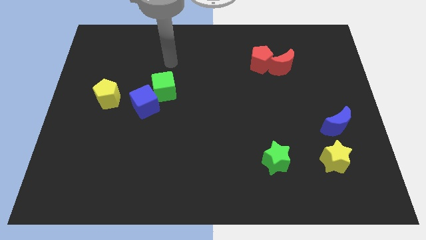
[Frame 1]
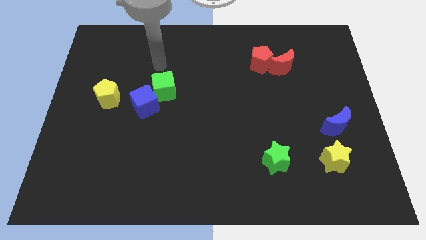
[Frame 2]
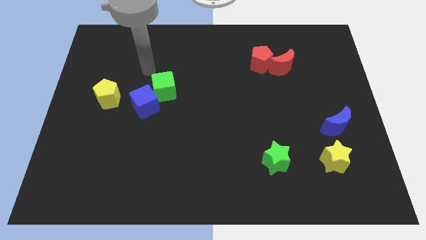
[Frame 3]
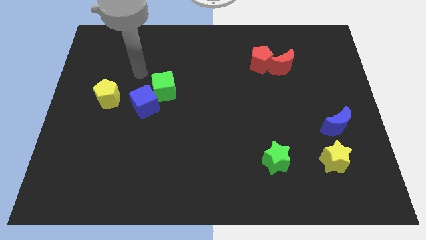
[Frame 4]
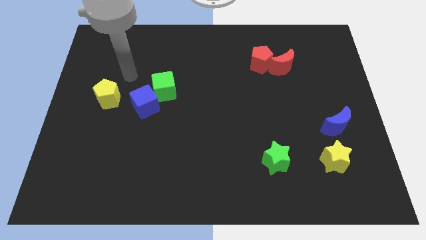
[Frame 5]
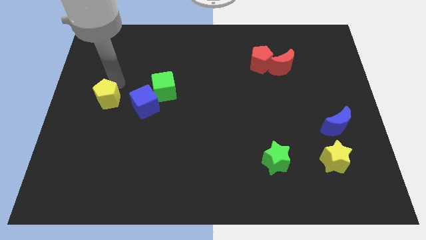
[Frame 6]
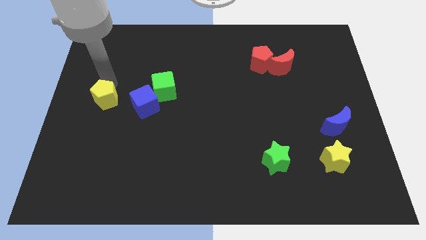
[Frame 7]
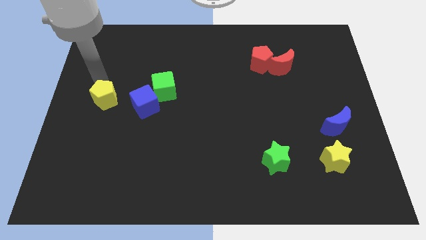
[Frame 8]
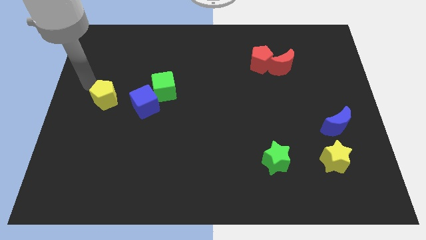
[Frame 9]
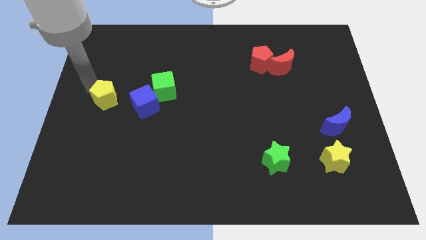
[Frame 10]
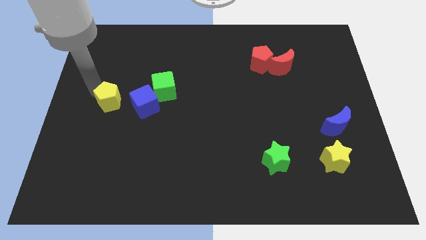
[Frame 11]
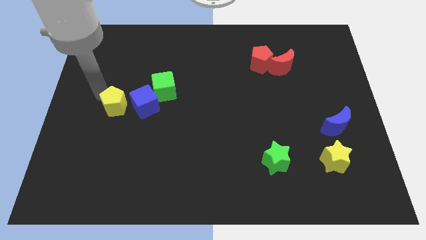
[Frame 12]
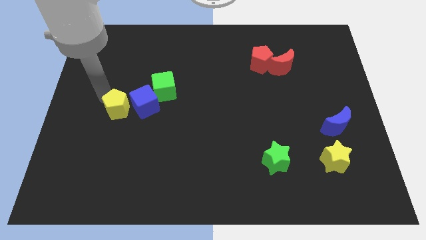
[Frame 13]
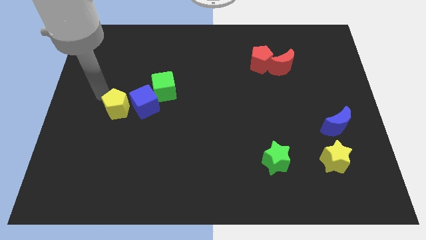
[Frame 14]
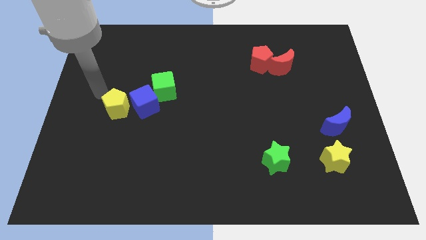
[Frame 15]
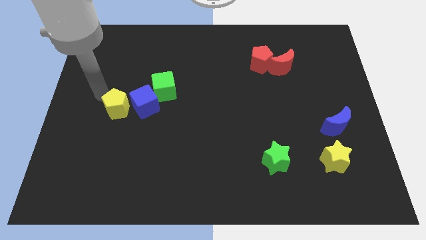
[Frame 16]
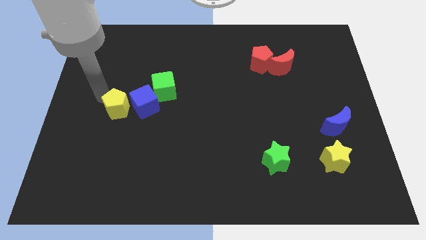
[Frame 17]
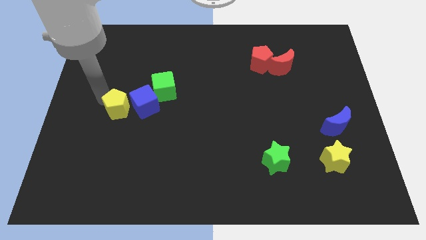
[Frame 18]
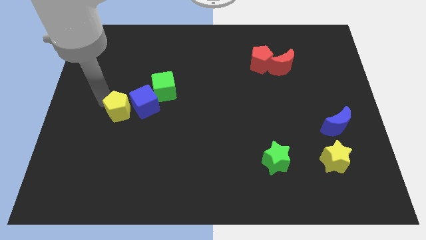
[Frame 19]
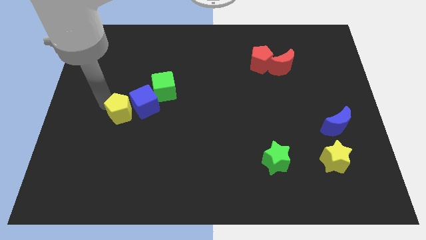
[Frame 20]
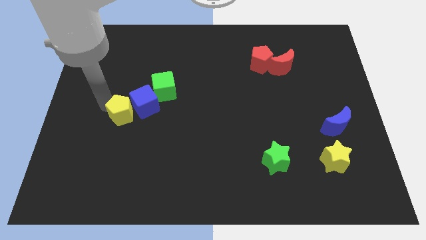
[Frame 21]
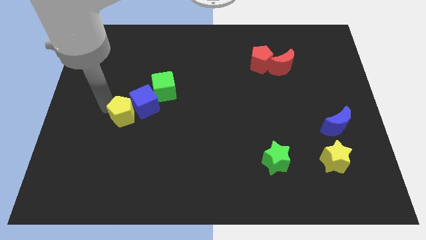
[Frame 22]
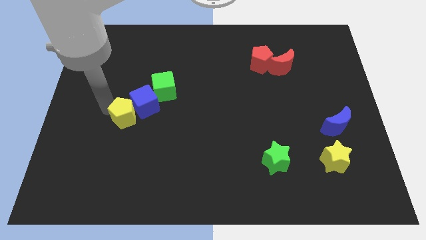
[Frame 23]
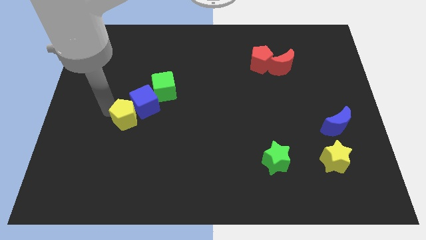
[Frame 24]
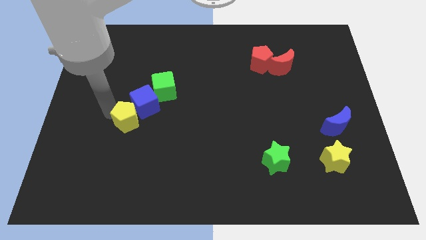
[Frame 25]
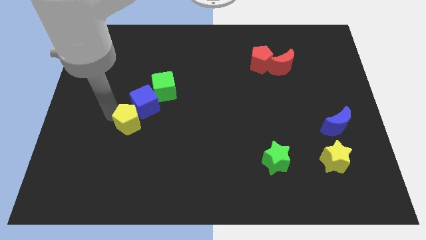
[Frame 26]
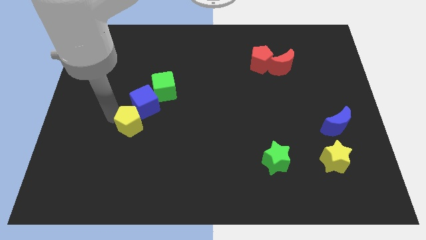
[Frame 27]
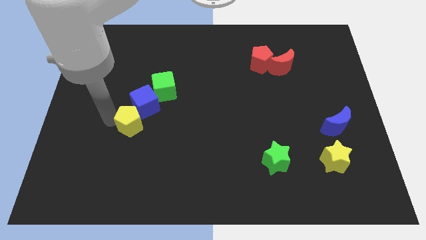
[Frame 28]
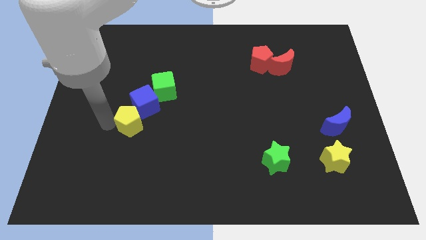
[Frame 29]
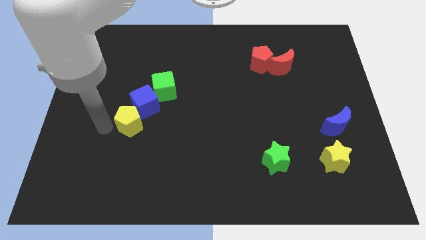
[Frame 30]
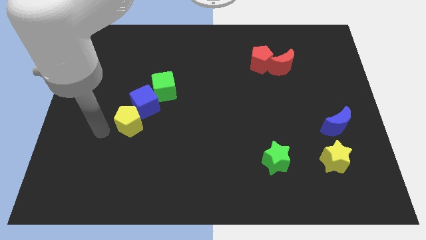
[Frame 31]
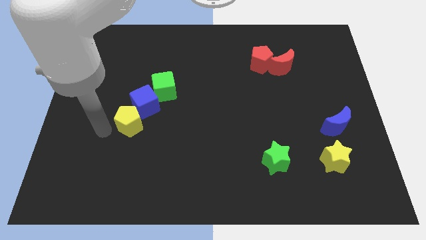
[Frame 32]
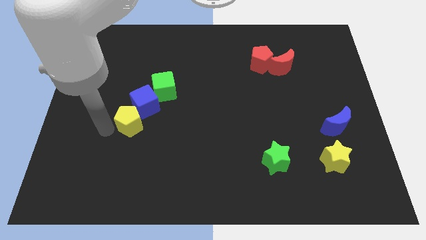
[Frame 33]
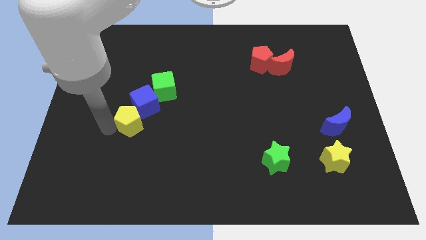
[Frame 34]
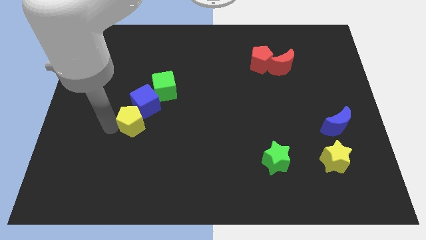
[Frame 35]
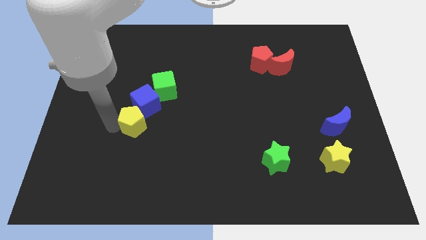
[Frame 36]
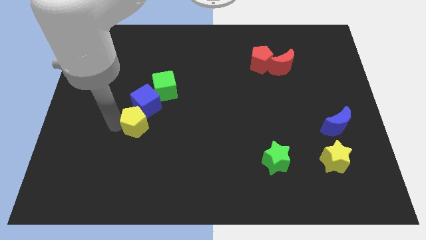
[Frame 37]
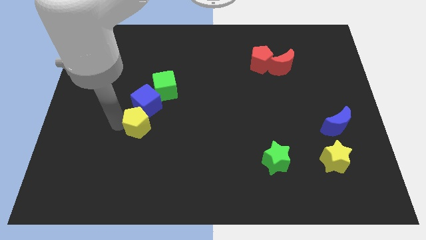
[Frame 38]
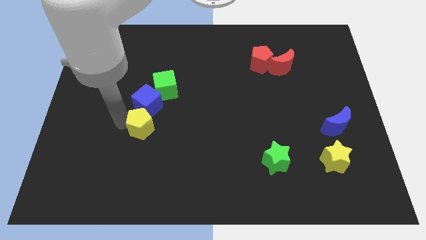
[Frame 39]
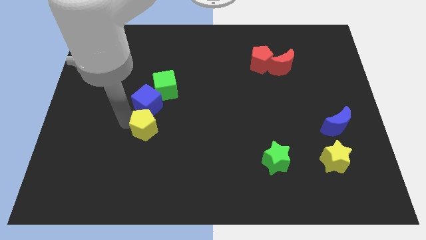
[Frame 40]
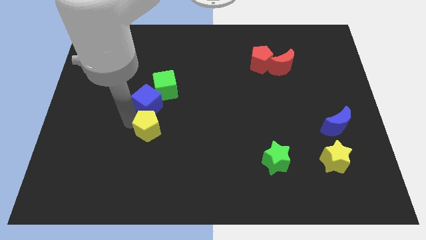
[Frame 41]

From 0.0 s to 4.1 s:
slightly slide the yellow pentagon to the right

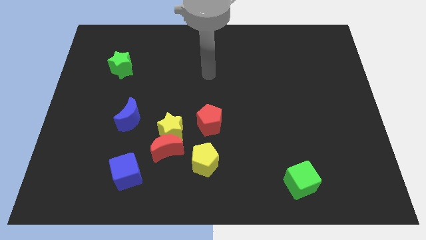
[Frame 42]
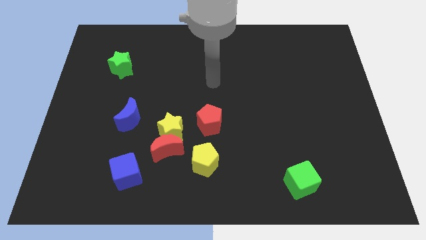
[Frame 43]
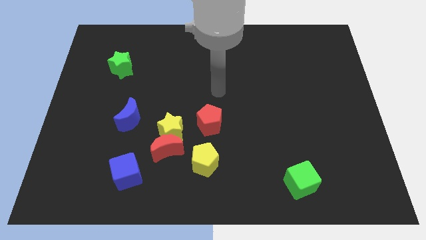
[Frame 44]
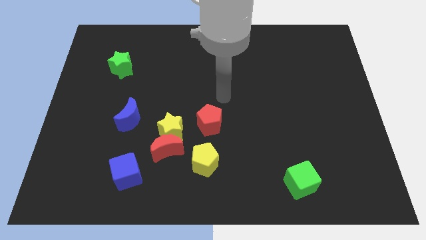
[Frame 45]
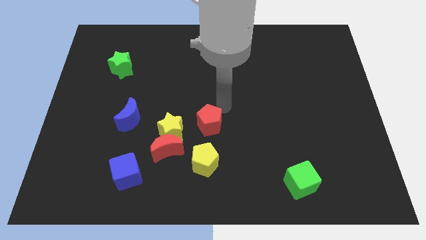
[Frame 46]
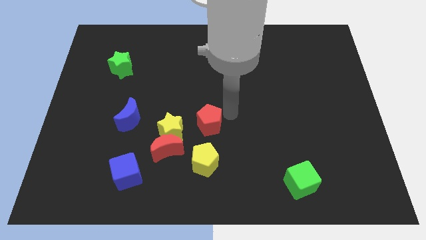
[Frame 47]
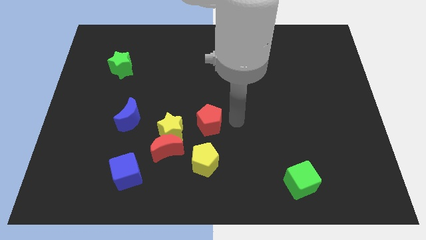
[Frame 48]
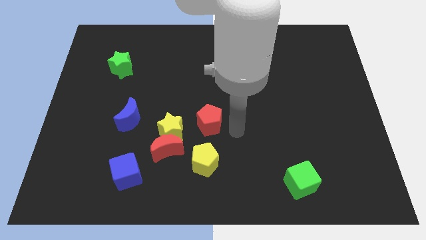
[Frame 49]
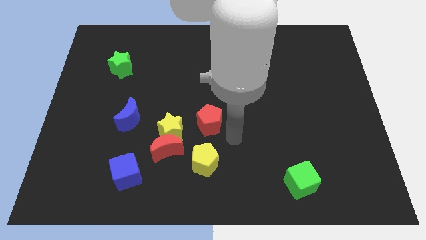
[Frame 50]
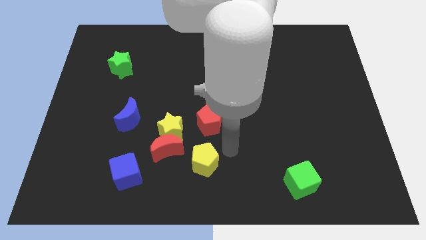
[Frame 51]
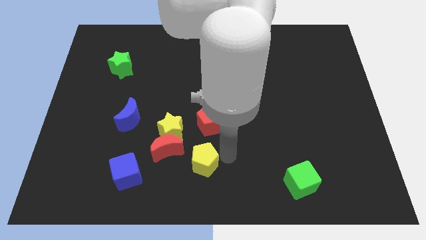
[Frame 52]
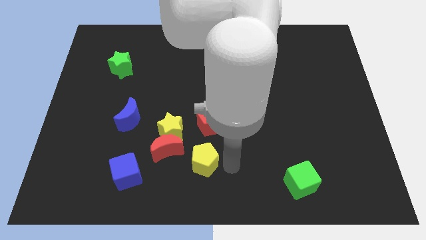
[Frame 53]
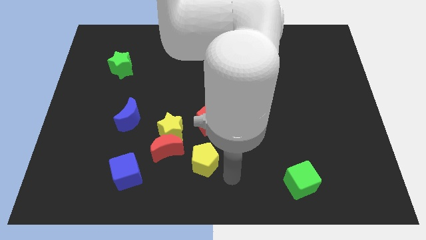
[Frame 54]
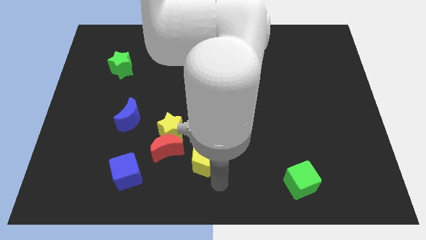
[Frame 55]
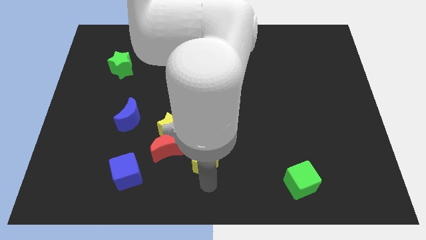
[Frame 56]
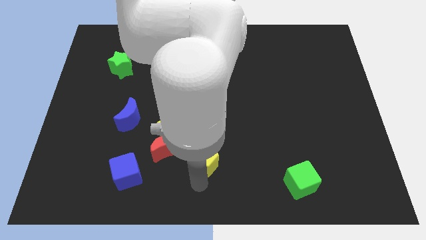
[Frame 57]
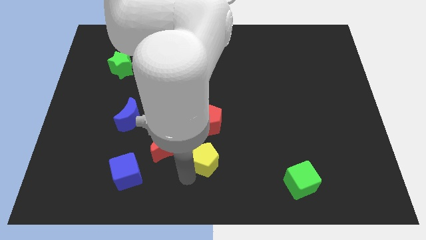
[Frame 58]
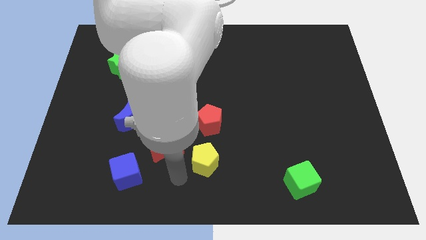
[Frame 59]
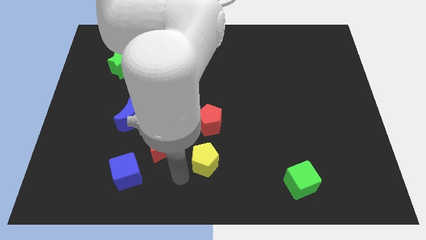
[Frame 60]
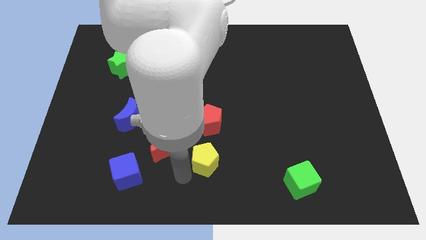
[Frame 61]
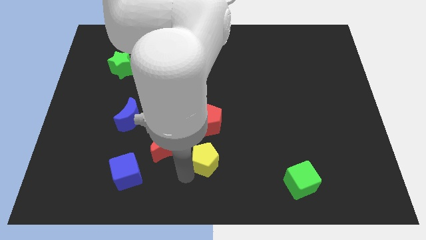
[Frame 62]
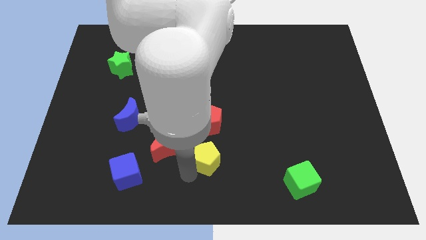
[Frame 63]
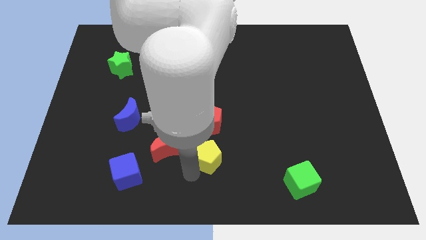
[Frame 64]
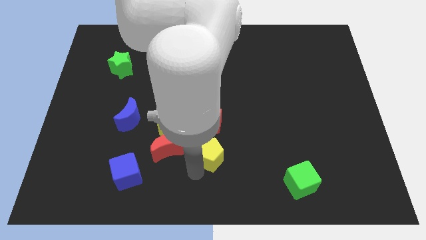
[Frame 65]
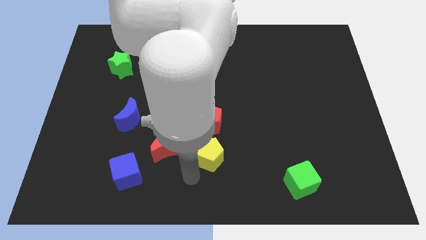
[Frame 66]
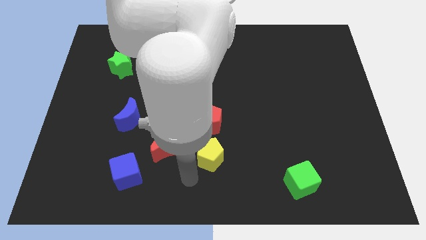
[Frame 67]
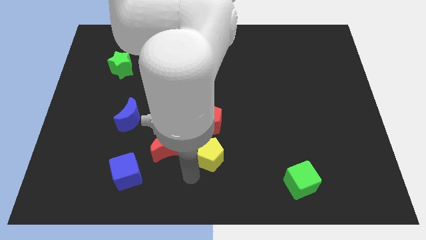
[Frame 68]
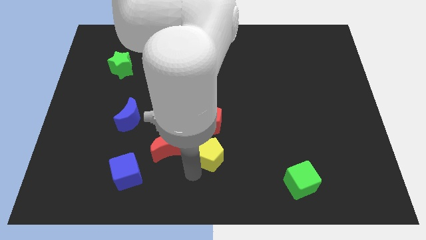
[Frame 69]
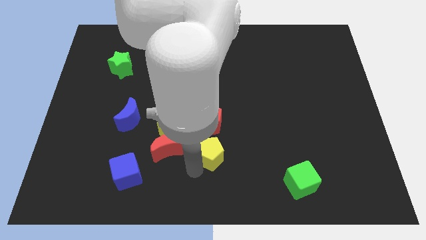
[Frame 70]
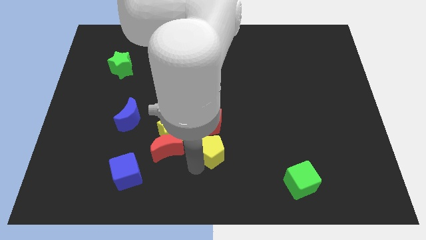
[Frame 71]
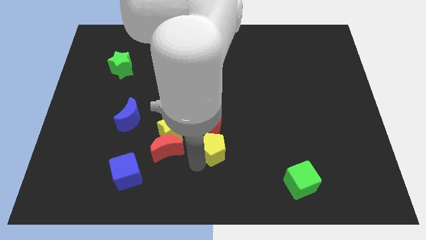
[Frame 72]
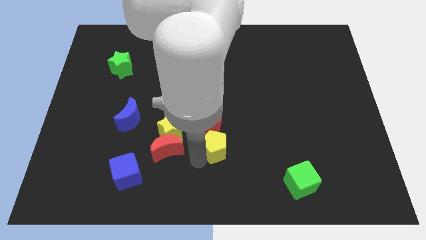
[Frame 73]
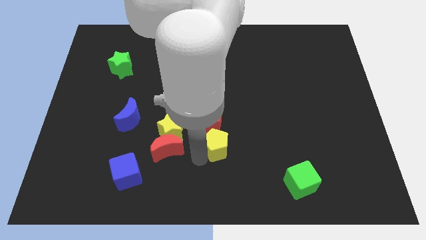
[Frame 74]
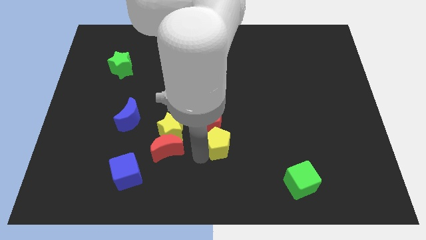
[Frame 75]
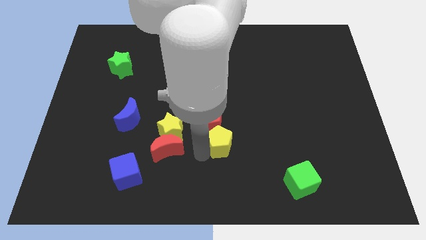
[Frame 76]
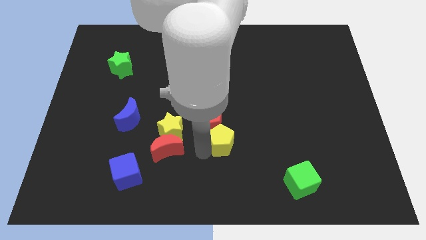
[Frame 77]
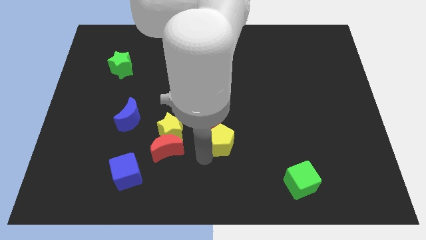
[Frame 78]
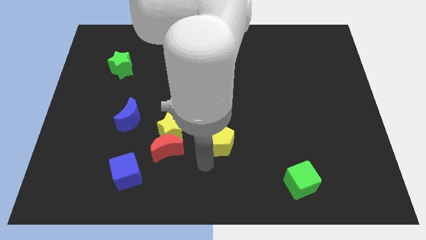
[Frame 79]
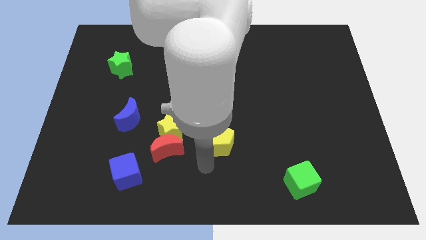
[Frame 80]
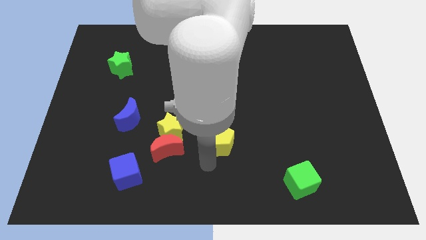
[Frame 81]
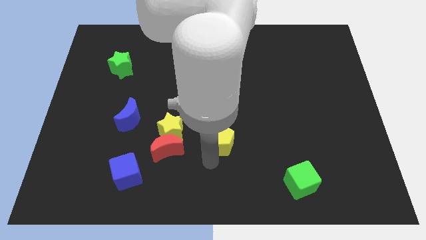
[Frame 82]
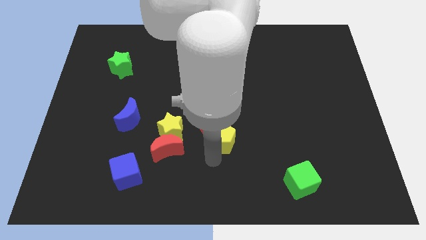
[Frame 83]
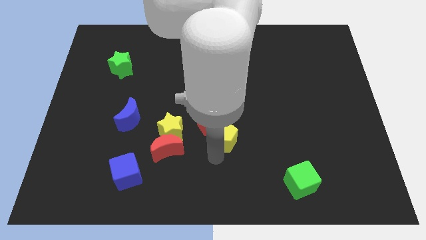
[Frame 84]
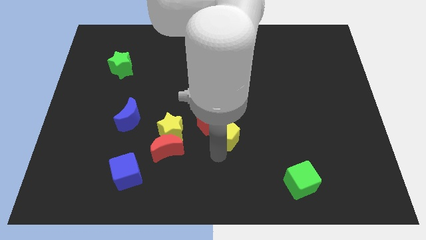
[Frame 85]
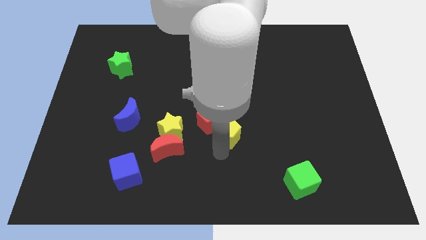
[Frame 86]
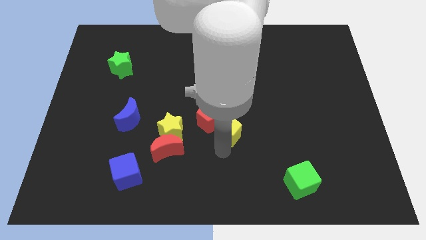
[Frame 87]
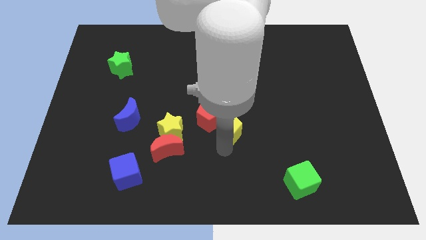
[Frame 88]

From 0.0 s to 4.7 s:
push the yellow pentagon upwards somewhat
